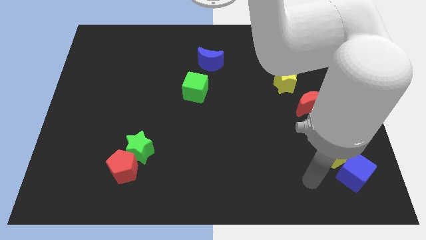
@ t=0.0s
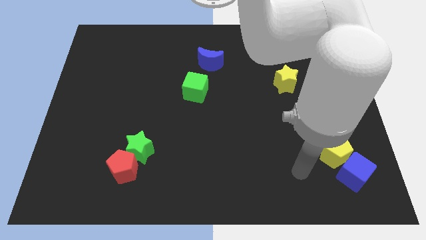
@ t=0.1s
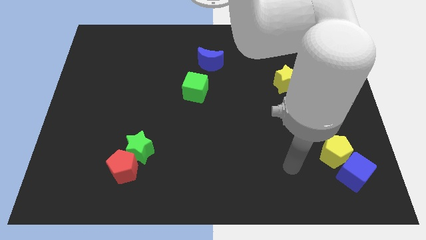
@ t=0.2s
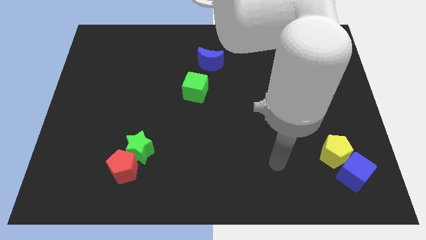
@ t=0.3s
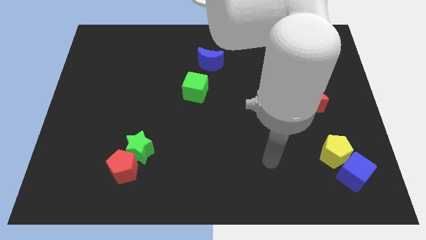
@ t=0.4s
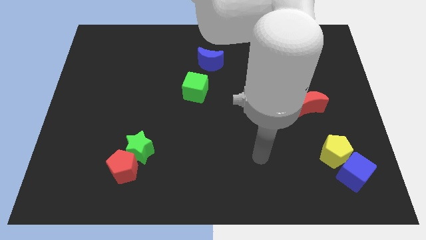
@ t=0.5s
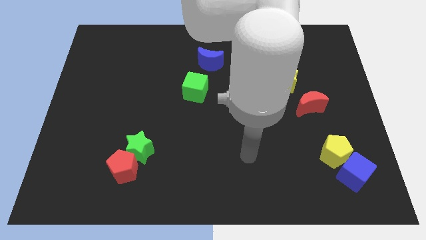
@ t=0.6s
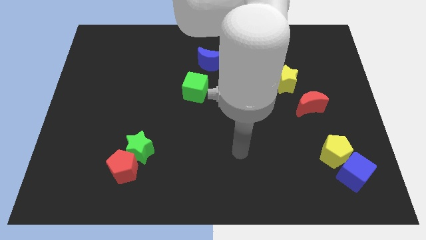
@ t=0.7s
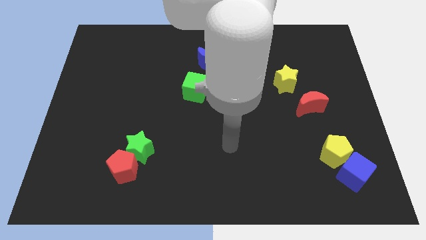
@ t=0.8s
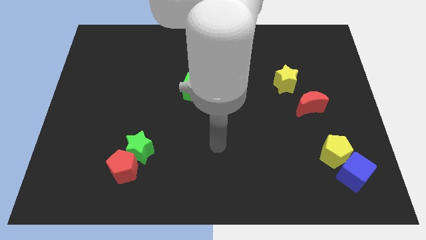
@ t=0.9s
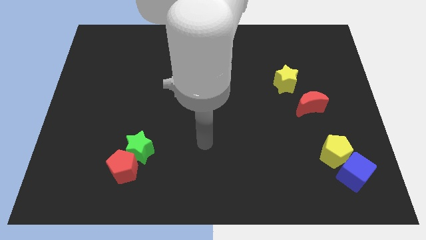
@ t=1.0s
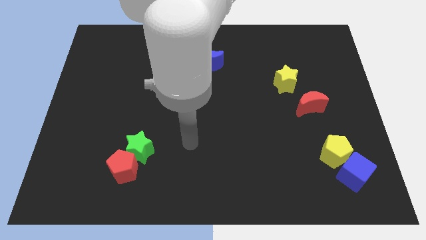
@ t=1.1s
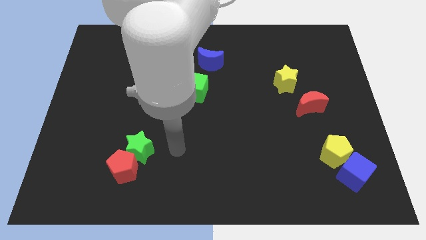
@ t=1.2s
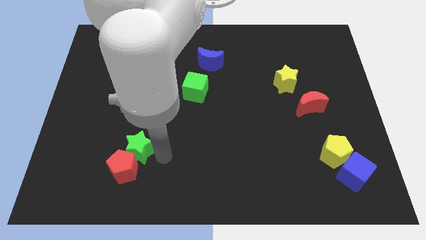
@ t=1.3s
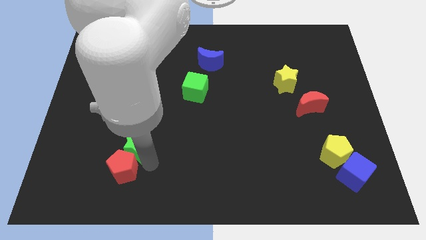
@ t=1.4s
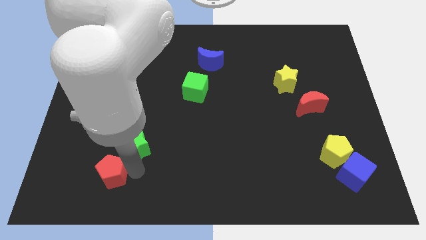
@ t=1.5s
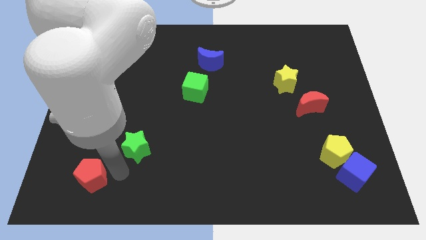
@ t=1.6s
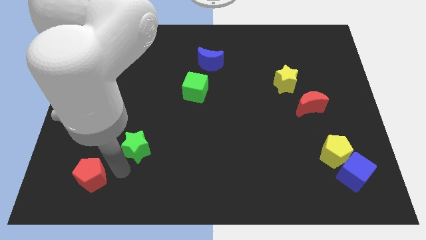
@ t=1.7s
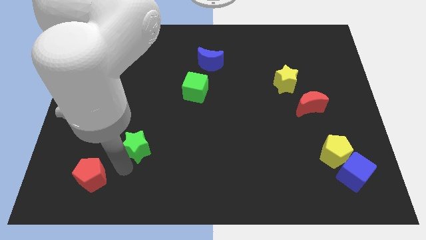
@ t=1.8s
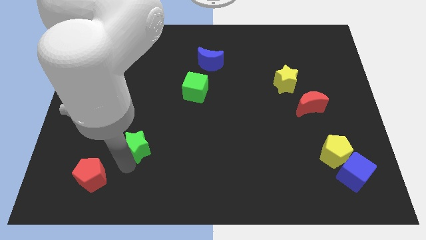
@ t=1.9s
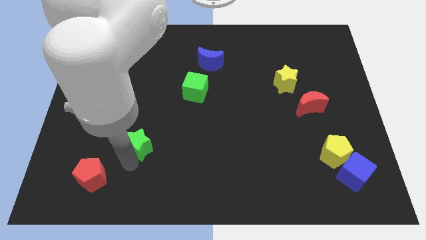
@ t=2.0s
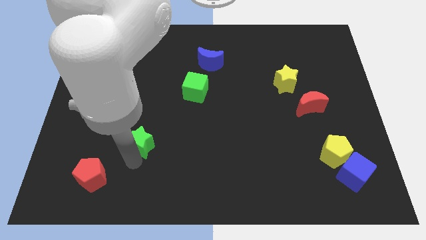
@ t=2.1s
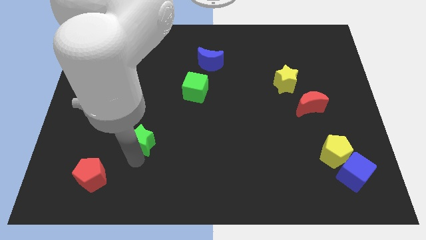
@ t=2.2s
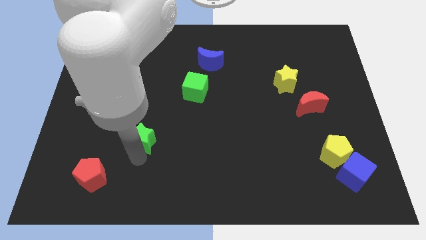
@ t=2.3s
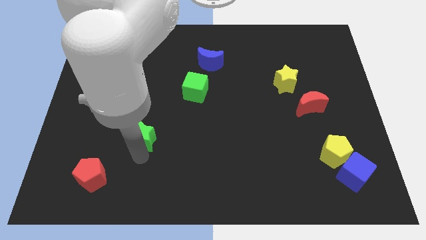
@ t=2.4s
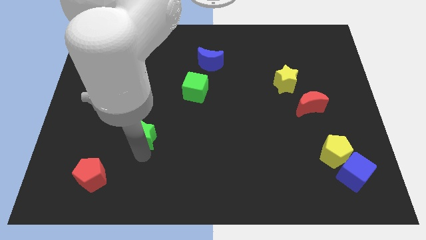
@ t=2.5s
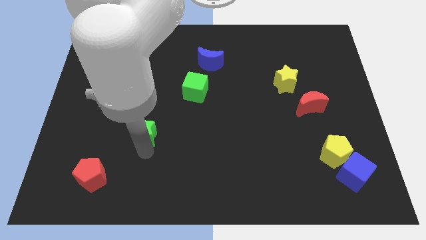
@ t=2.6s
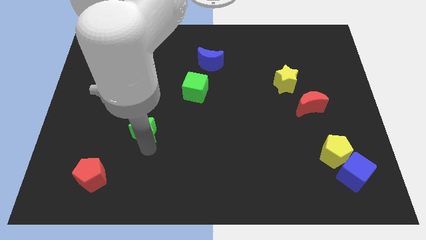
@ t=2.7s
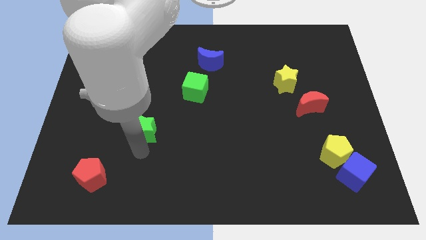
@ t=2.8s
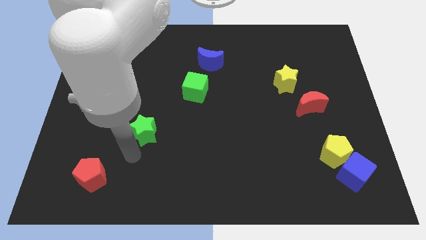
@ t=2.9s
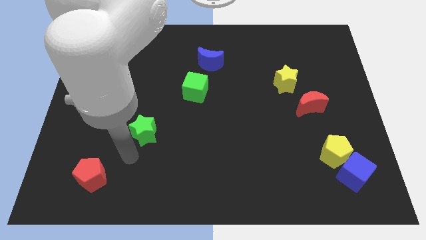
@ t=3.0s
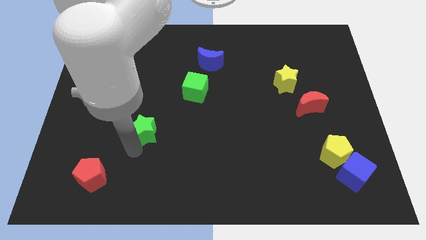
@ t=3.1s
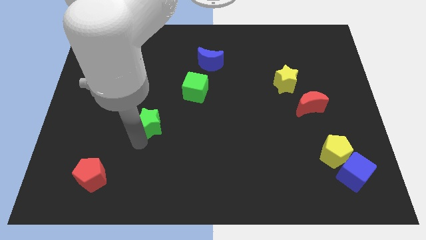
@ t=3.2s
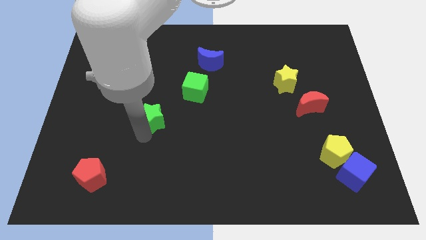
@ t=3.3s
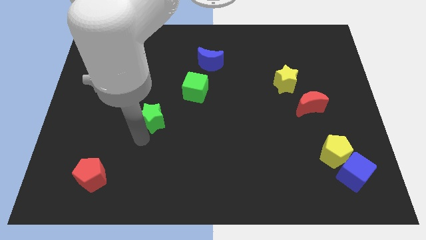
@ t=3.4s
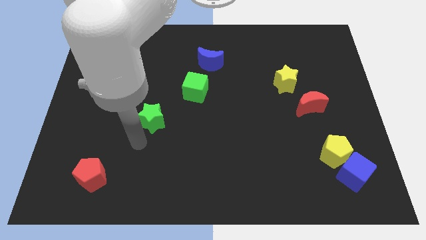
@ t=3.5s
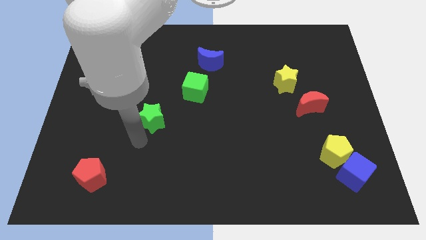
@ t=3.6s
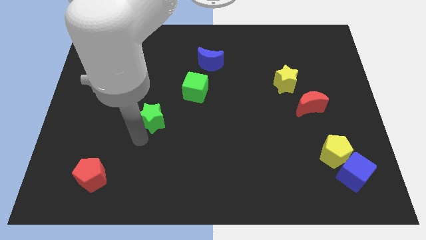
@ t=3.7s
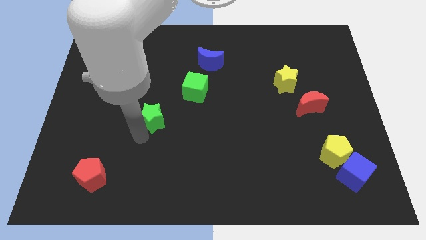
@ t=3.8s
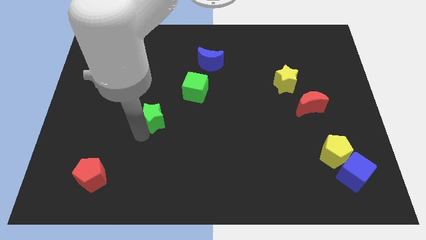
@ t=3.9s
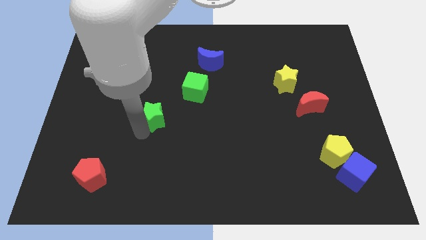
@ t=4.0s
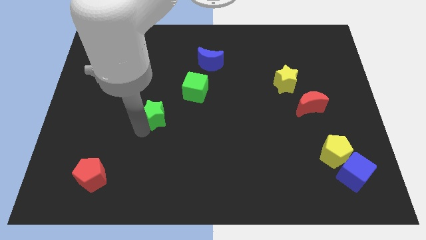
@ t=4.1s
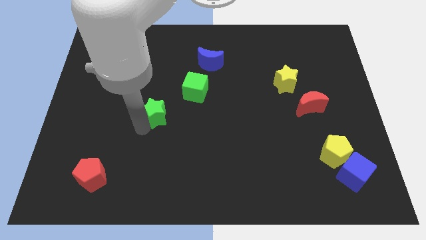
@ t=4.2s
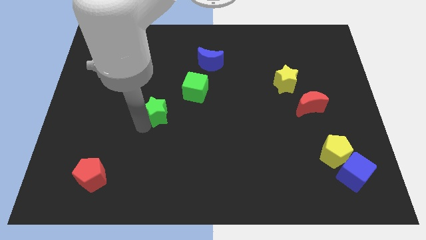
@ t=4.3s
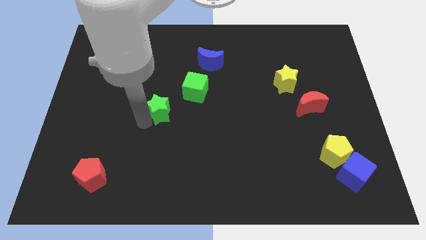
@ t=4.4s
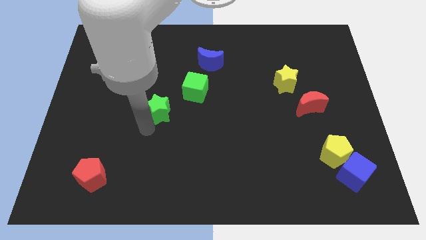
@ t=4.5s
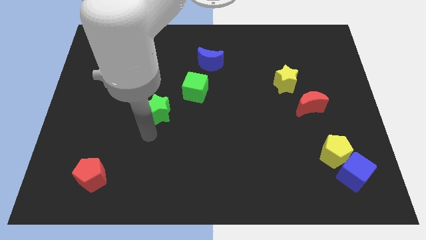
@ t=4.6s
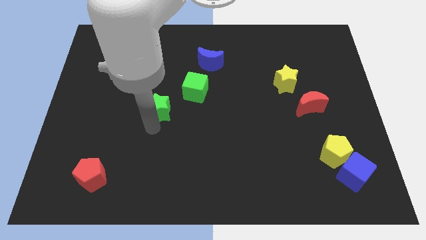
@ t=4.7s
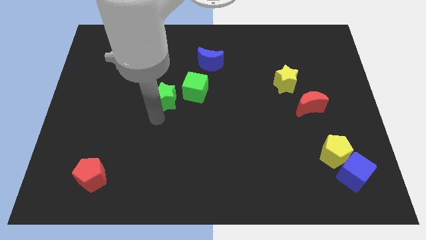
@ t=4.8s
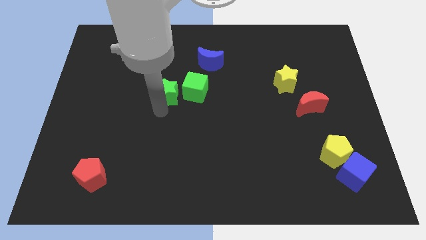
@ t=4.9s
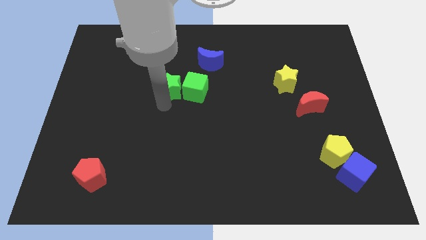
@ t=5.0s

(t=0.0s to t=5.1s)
move the green star to the top left side of the green cube
